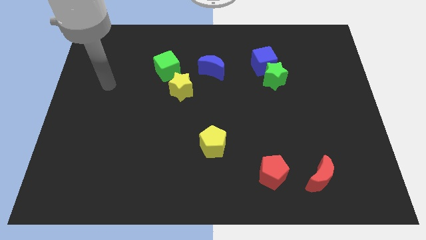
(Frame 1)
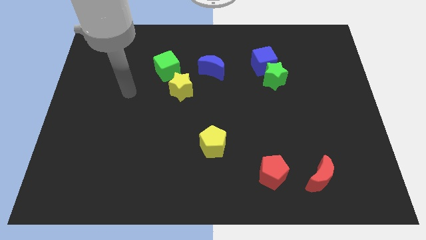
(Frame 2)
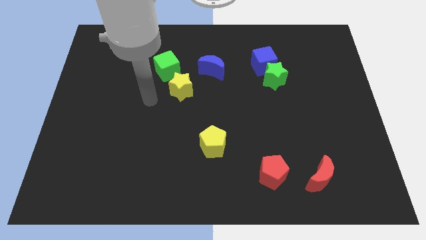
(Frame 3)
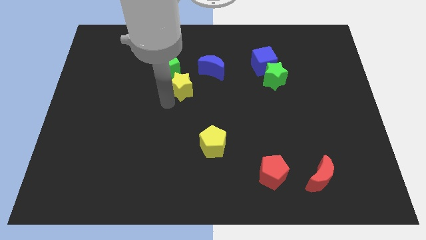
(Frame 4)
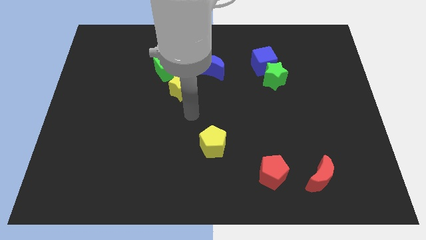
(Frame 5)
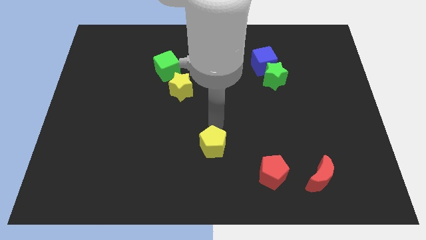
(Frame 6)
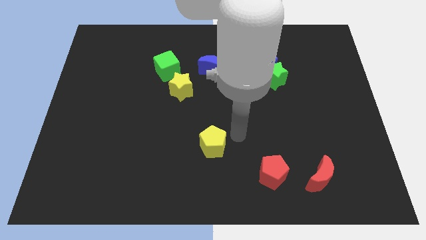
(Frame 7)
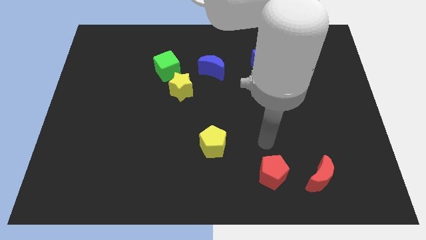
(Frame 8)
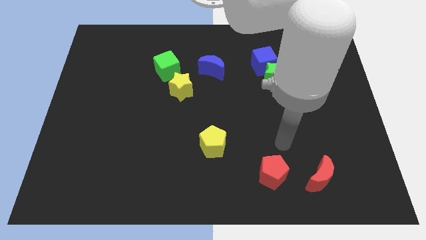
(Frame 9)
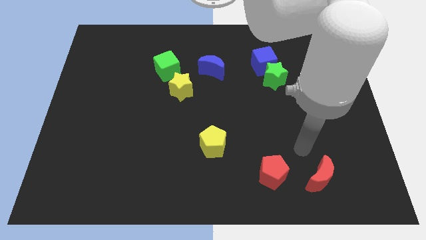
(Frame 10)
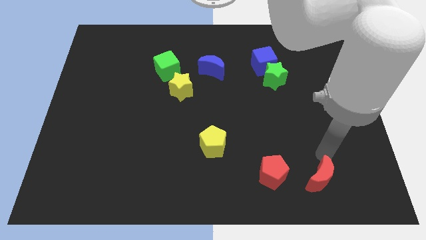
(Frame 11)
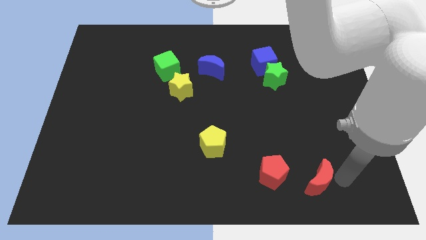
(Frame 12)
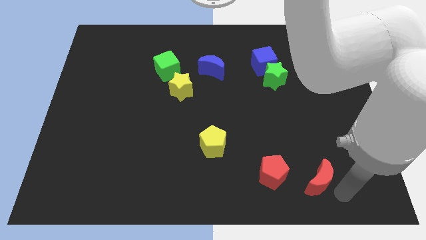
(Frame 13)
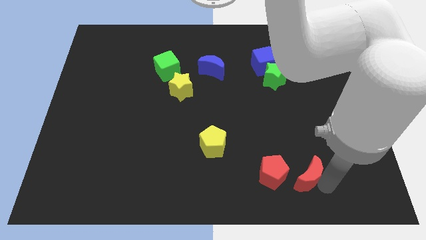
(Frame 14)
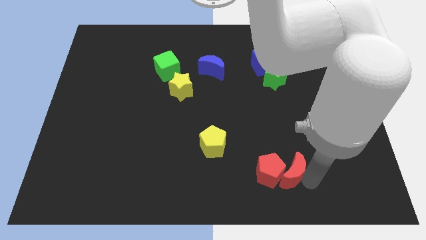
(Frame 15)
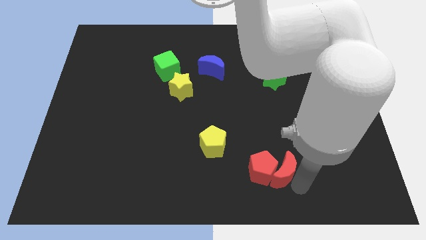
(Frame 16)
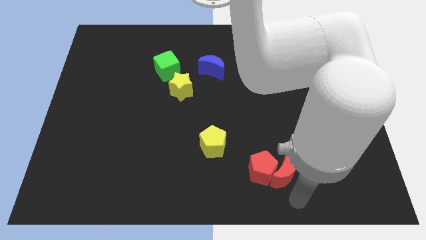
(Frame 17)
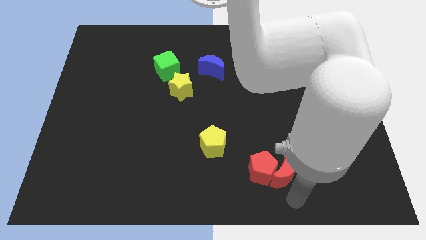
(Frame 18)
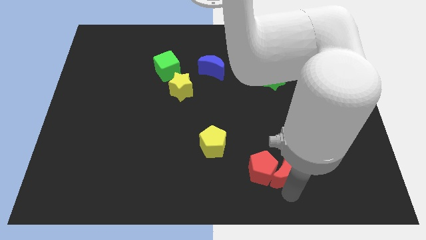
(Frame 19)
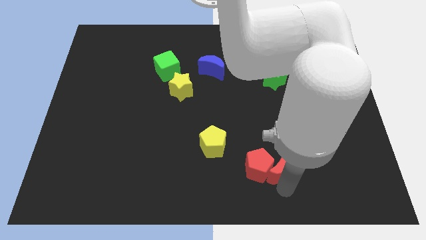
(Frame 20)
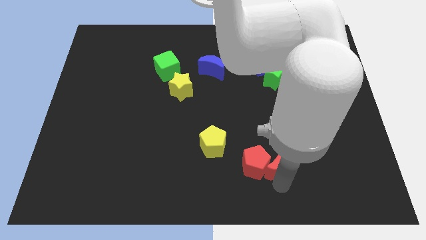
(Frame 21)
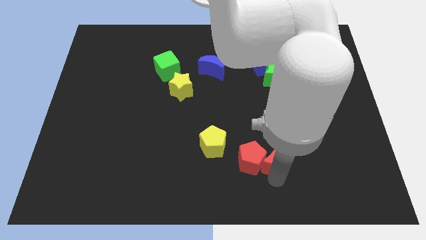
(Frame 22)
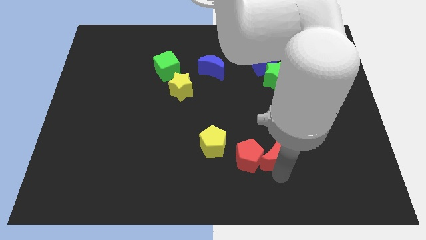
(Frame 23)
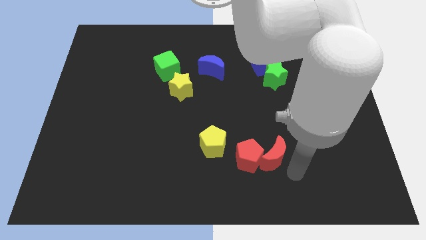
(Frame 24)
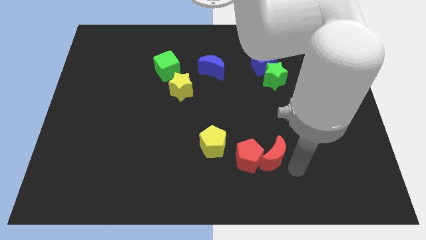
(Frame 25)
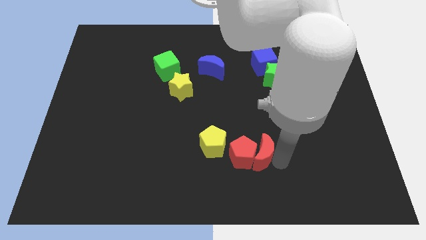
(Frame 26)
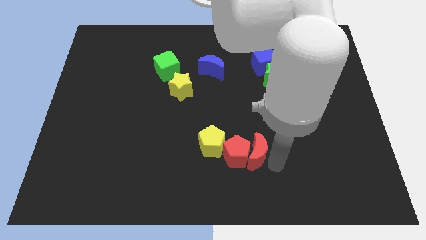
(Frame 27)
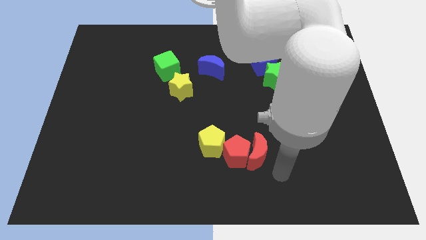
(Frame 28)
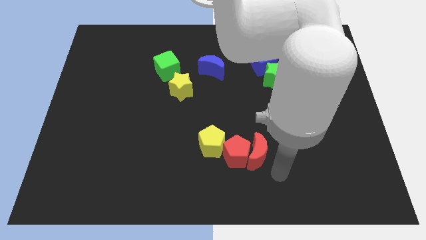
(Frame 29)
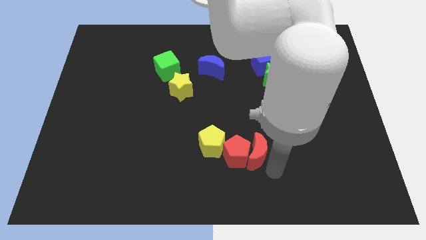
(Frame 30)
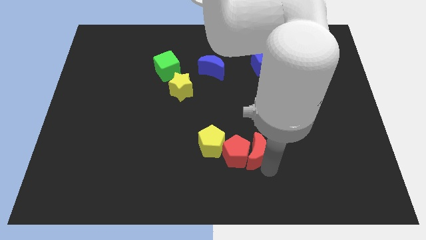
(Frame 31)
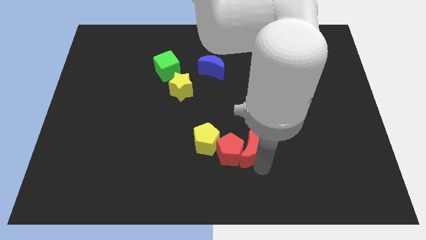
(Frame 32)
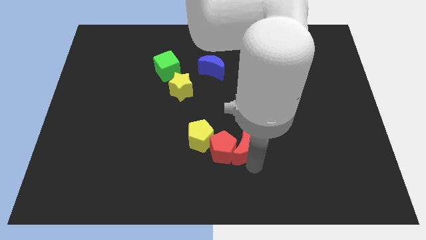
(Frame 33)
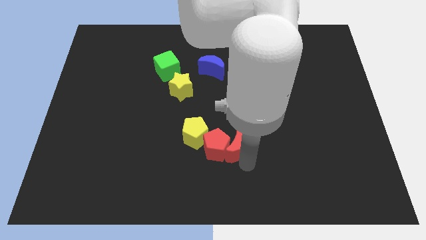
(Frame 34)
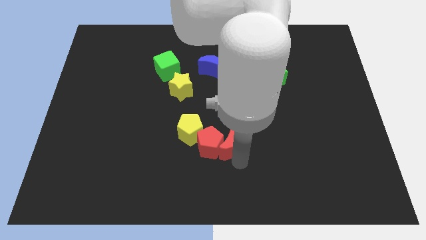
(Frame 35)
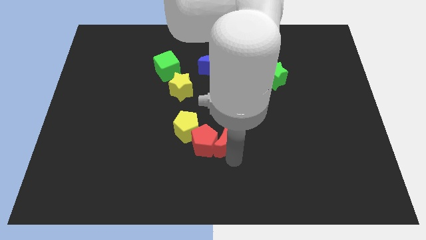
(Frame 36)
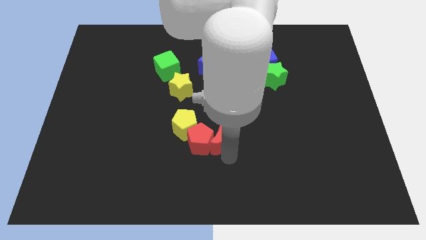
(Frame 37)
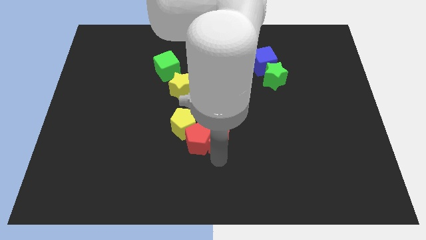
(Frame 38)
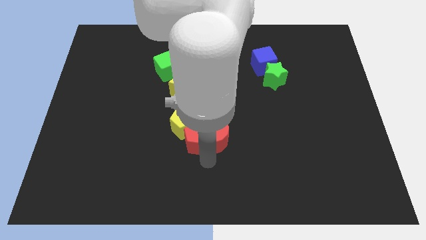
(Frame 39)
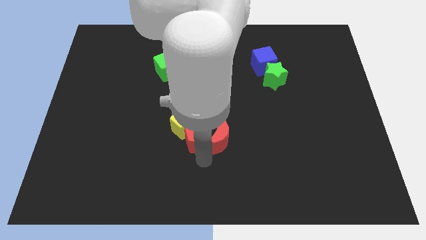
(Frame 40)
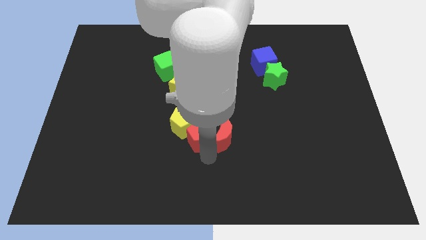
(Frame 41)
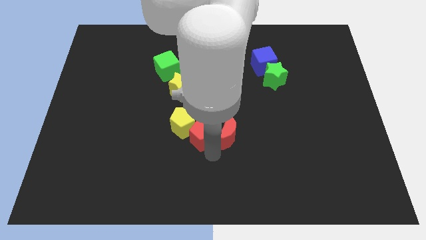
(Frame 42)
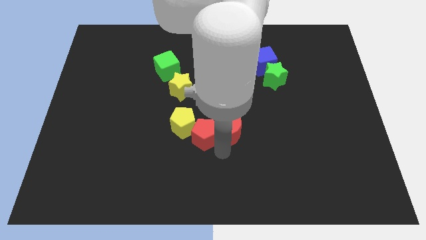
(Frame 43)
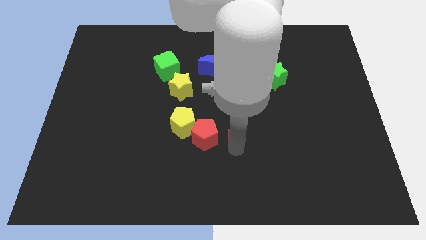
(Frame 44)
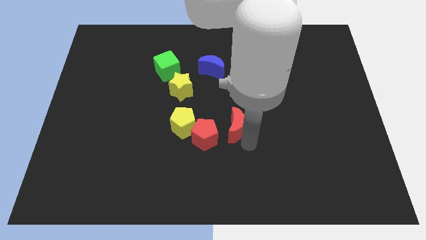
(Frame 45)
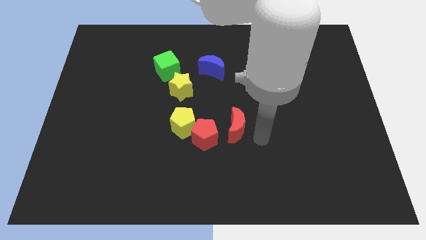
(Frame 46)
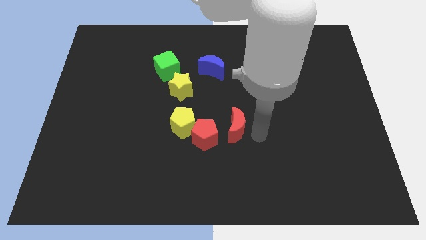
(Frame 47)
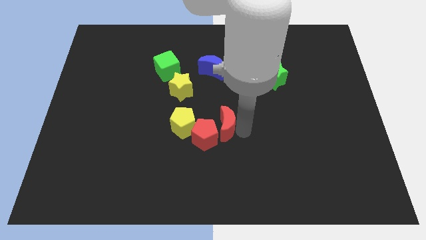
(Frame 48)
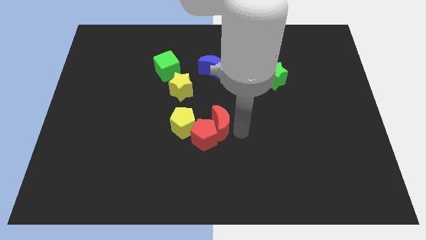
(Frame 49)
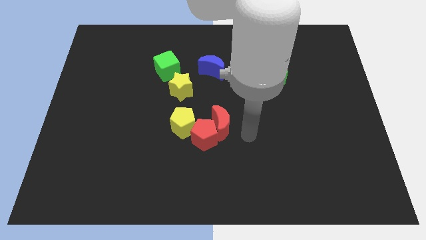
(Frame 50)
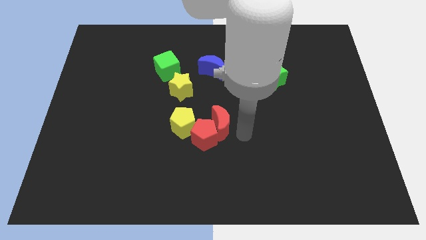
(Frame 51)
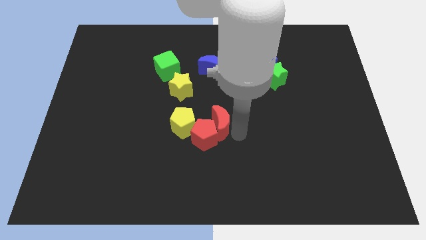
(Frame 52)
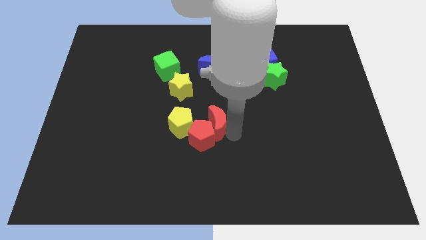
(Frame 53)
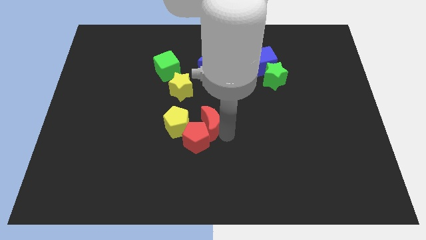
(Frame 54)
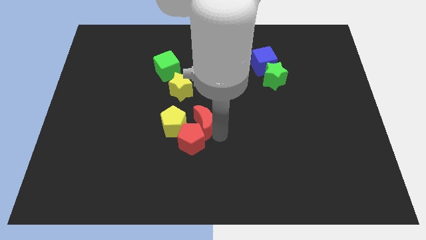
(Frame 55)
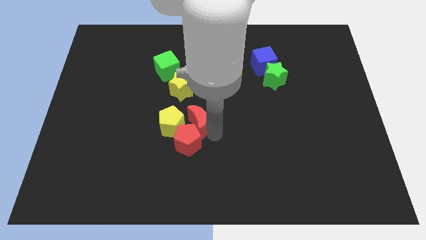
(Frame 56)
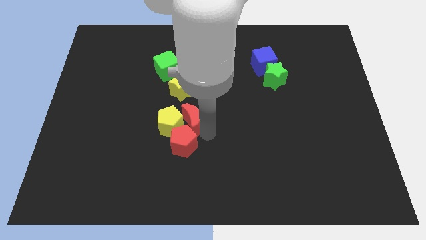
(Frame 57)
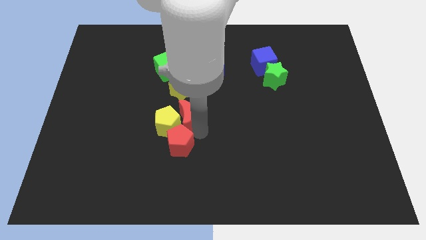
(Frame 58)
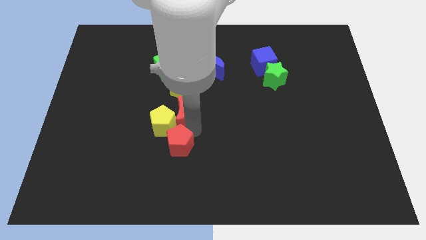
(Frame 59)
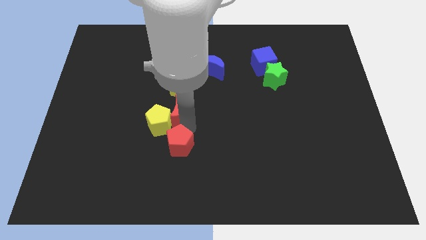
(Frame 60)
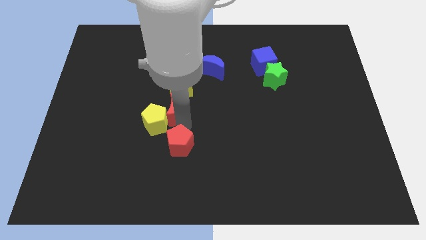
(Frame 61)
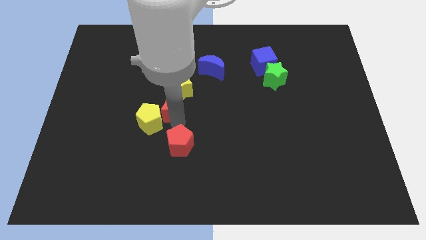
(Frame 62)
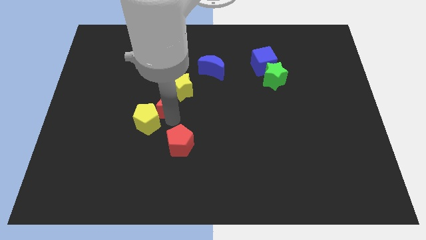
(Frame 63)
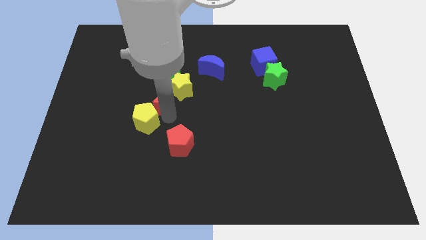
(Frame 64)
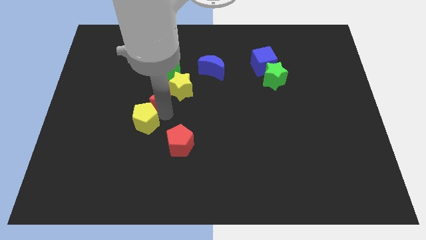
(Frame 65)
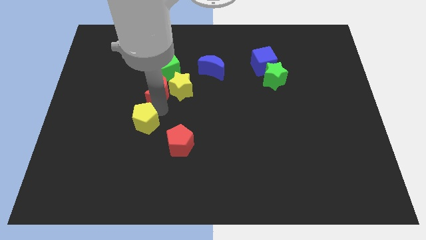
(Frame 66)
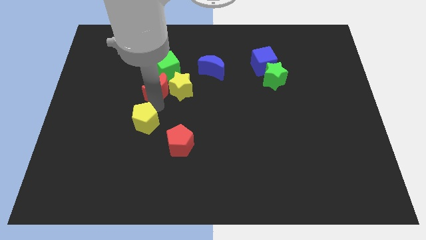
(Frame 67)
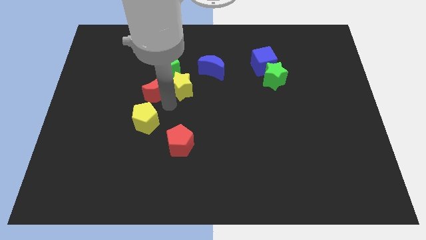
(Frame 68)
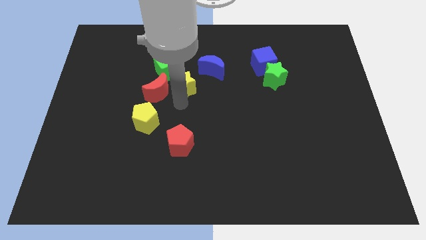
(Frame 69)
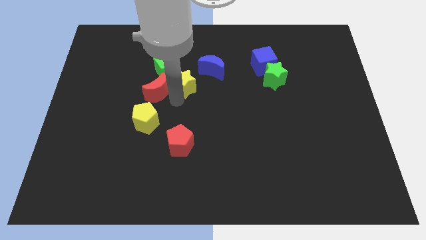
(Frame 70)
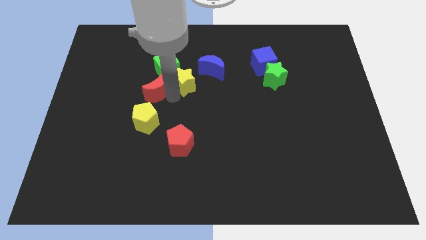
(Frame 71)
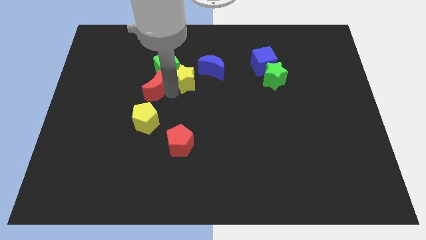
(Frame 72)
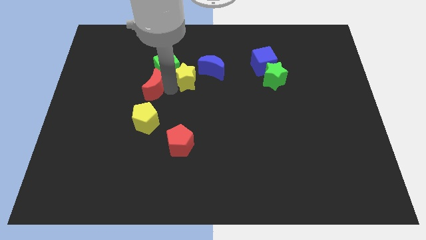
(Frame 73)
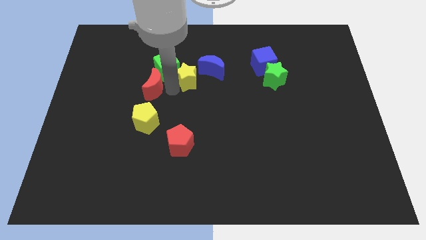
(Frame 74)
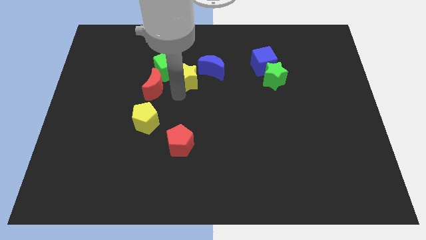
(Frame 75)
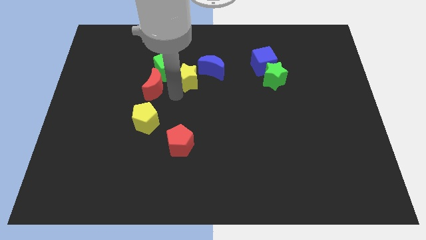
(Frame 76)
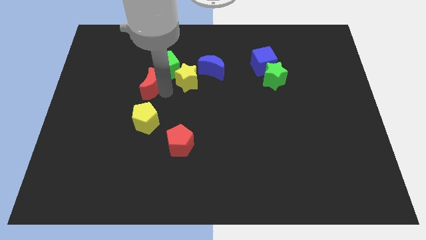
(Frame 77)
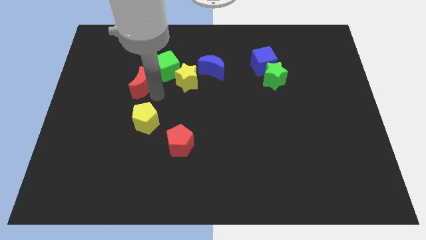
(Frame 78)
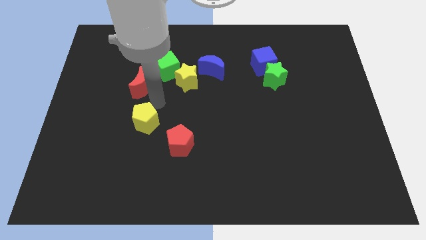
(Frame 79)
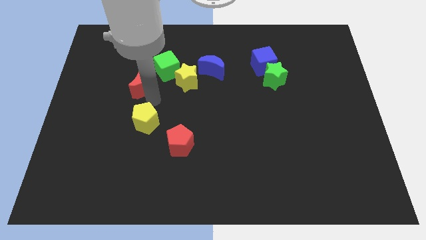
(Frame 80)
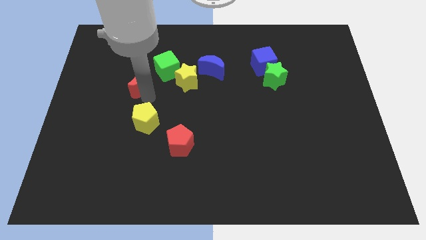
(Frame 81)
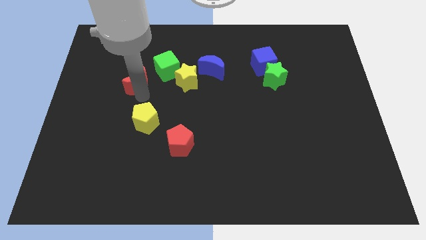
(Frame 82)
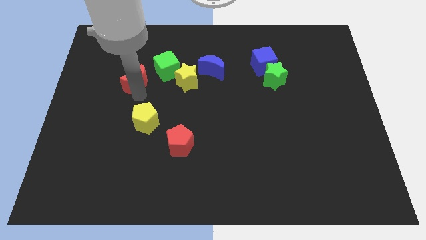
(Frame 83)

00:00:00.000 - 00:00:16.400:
push the red moon left of the green cube

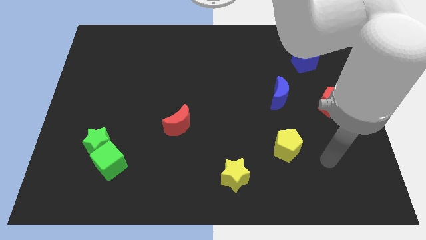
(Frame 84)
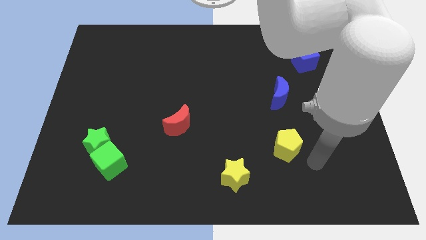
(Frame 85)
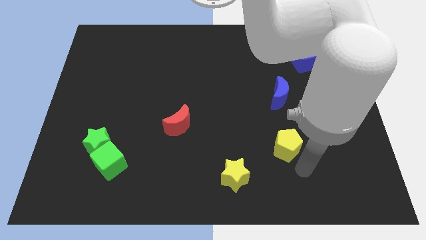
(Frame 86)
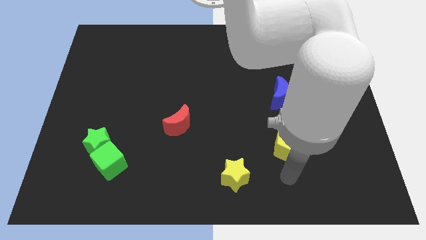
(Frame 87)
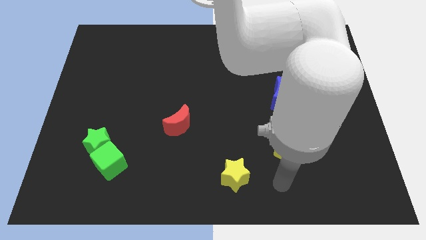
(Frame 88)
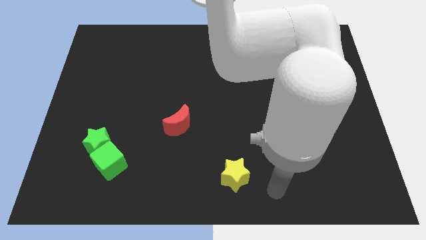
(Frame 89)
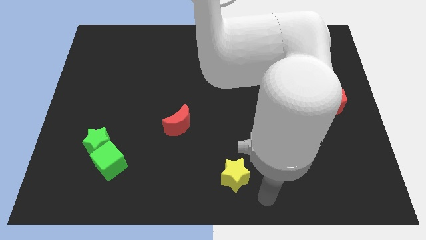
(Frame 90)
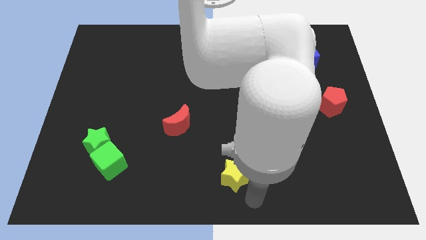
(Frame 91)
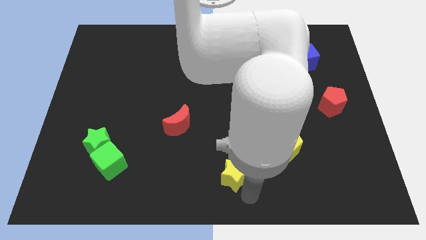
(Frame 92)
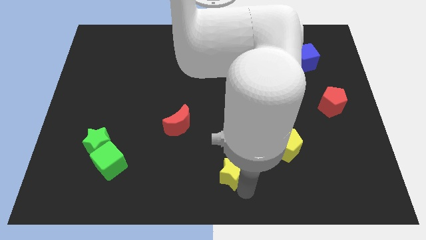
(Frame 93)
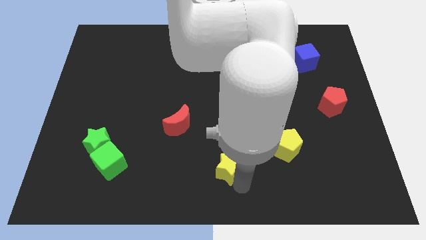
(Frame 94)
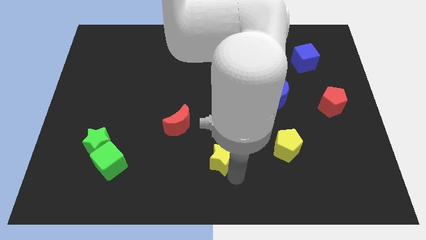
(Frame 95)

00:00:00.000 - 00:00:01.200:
slide the yellow star to the bottom right of the red moon
